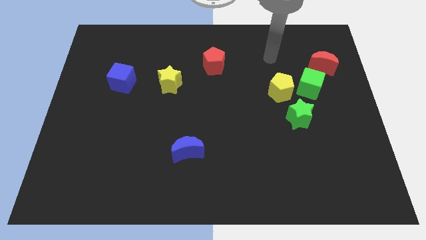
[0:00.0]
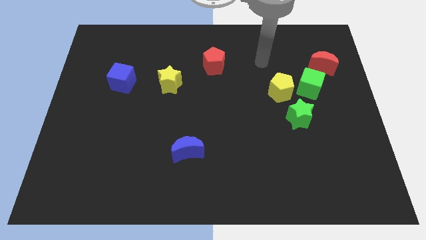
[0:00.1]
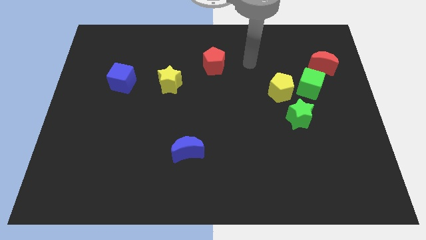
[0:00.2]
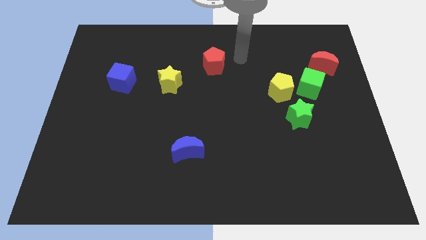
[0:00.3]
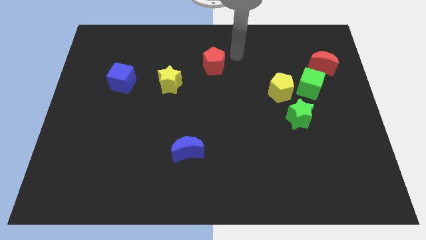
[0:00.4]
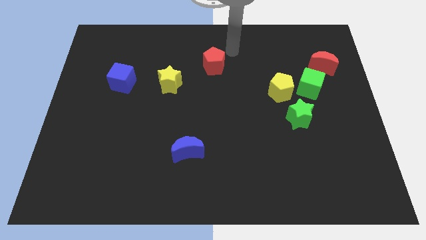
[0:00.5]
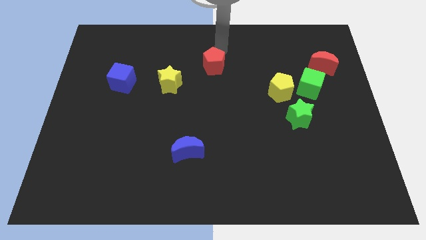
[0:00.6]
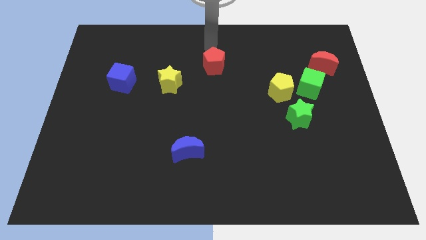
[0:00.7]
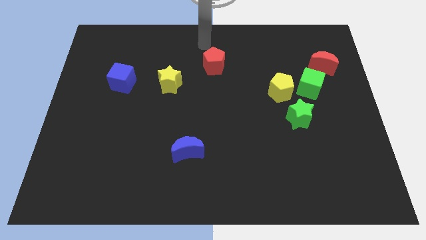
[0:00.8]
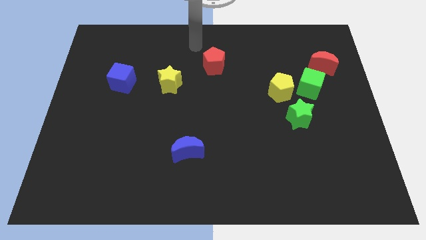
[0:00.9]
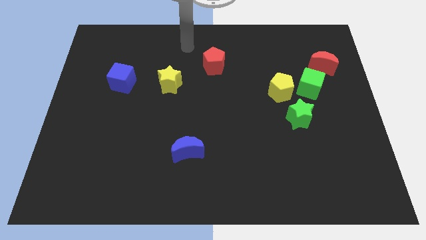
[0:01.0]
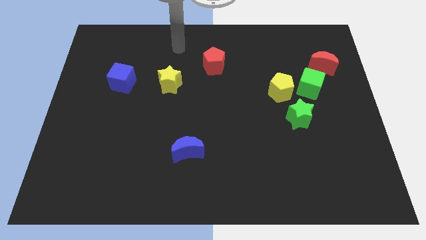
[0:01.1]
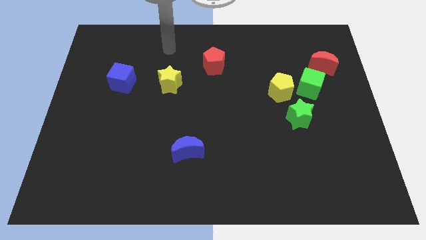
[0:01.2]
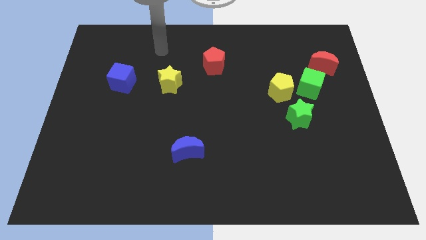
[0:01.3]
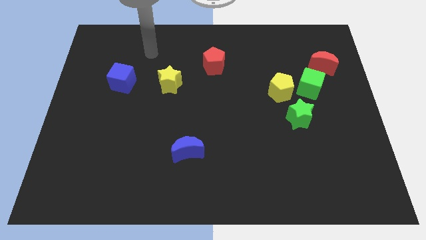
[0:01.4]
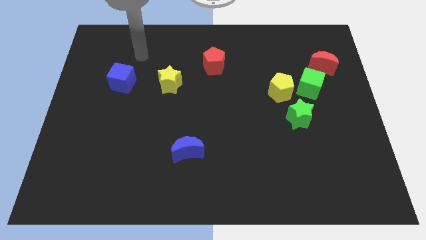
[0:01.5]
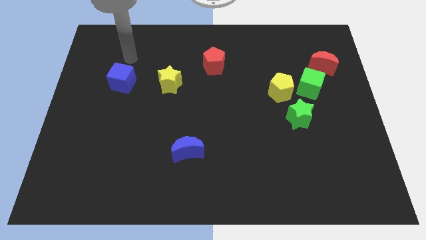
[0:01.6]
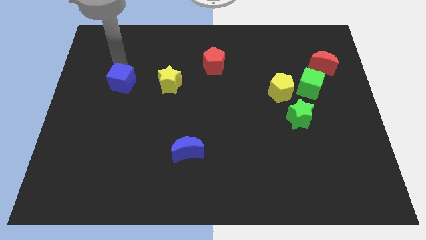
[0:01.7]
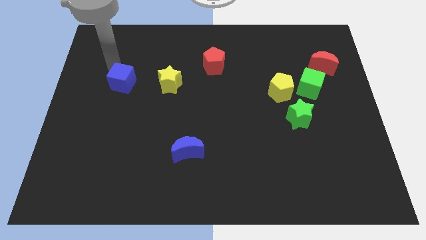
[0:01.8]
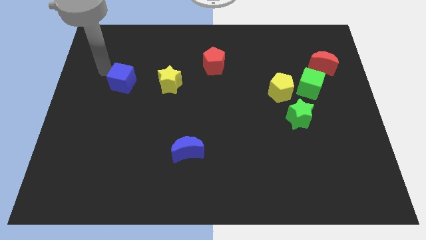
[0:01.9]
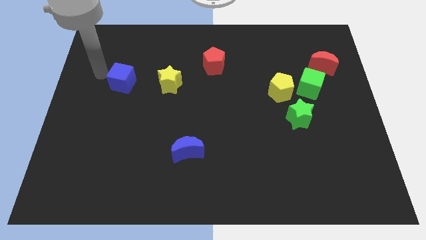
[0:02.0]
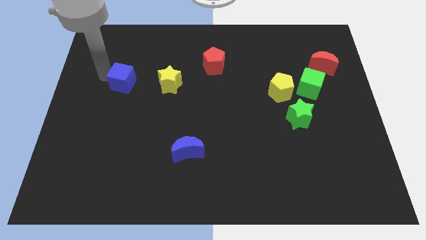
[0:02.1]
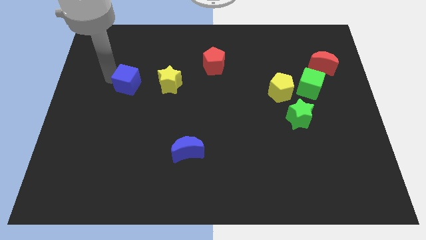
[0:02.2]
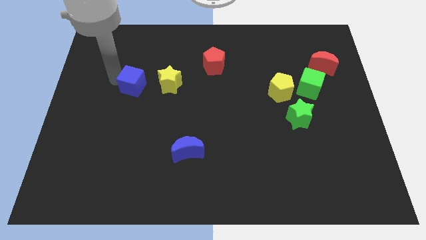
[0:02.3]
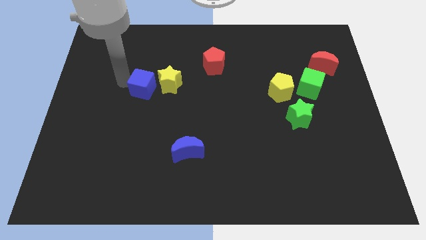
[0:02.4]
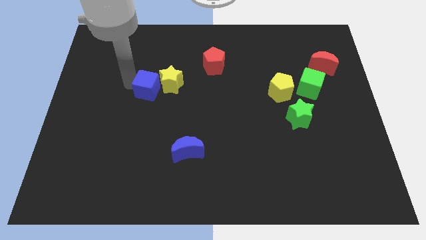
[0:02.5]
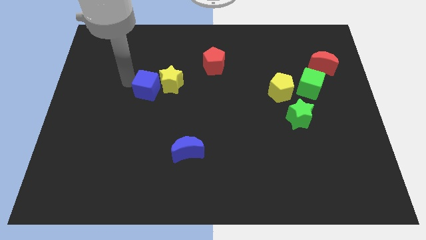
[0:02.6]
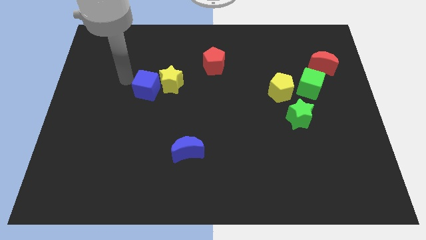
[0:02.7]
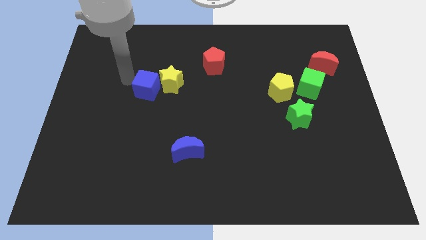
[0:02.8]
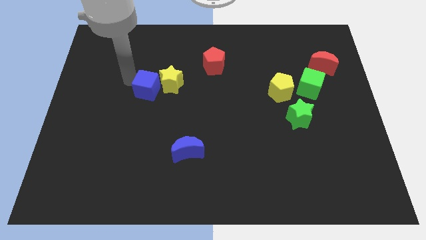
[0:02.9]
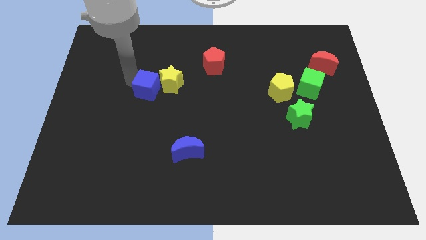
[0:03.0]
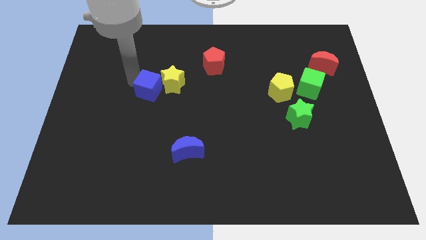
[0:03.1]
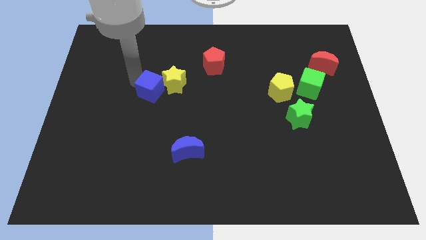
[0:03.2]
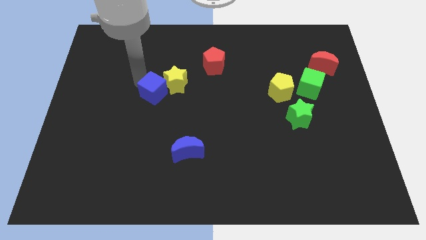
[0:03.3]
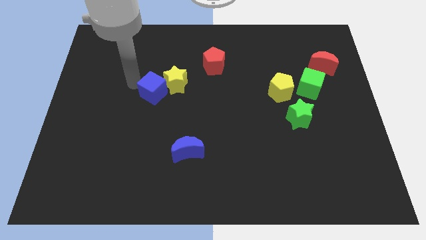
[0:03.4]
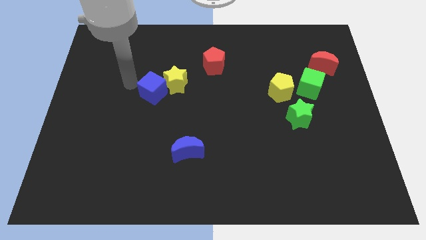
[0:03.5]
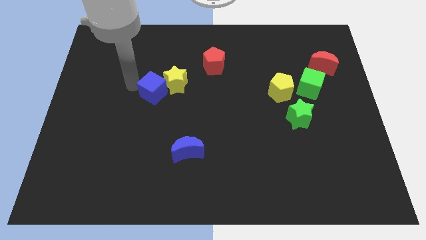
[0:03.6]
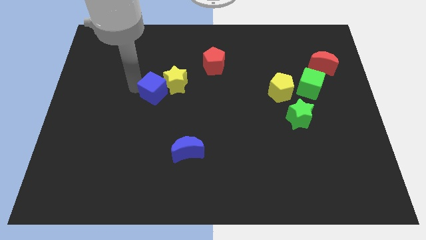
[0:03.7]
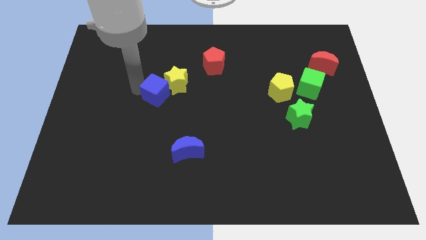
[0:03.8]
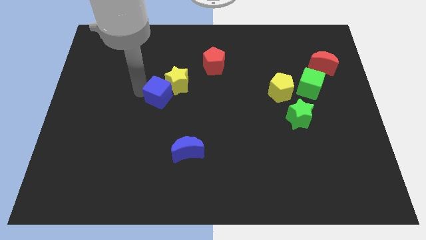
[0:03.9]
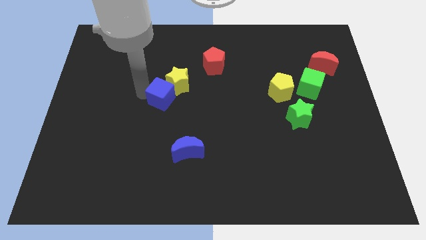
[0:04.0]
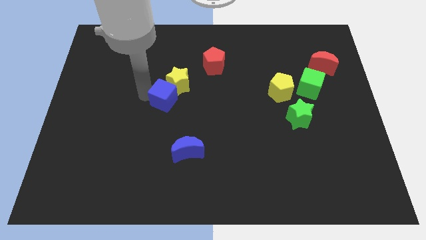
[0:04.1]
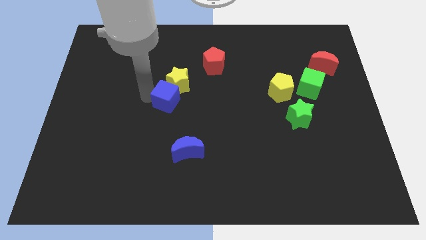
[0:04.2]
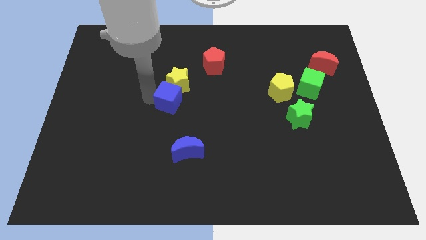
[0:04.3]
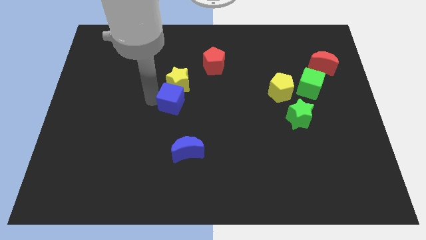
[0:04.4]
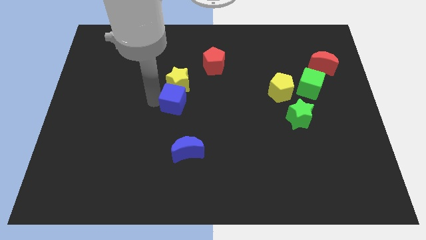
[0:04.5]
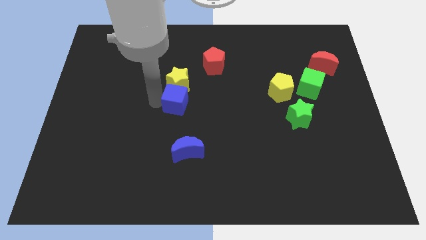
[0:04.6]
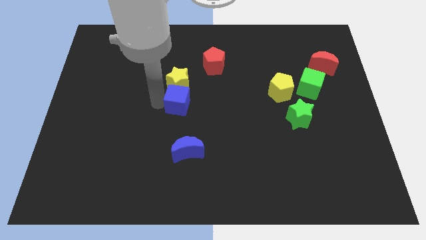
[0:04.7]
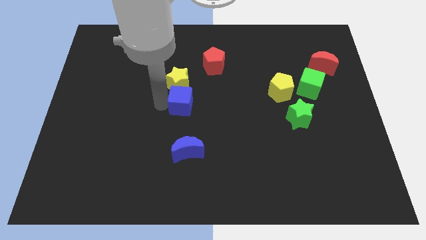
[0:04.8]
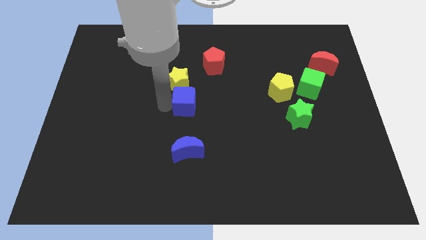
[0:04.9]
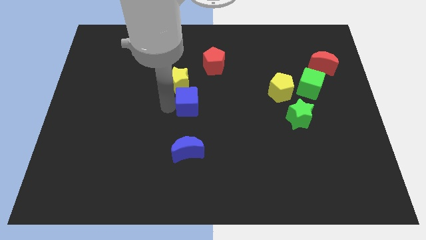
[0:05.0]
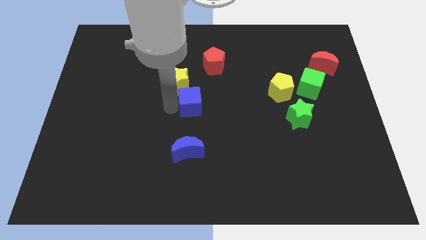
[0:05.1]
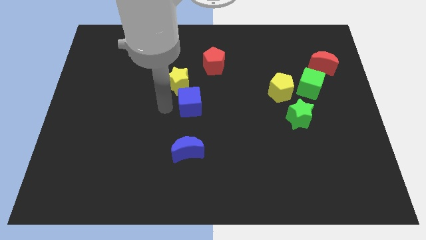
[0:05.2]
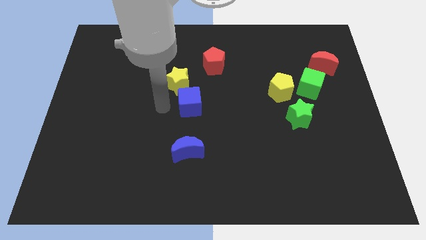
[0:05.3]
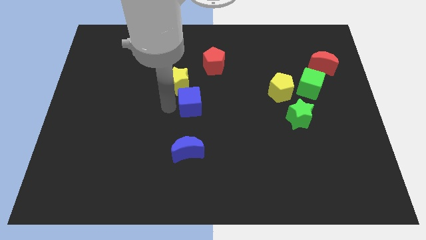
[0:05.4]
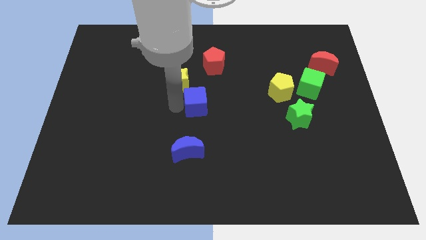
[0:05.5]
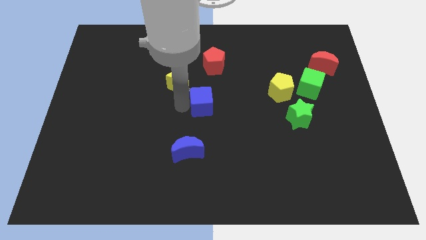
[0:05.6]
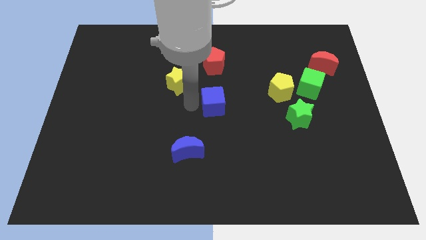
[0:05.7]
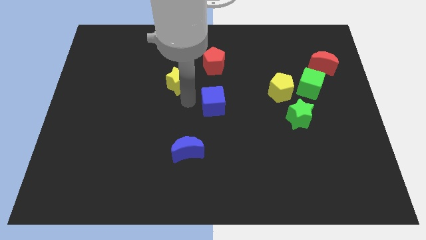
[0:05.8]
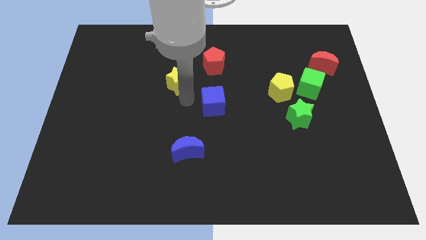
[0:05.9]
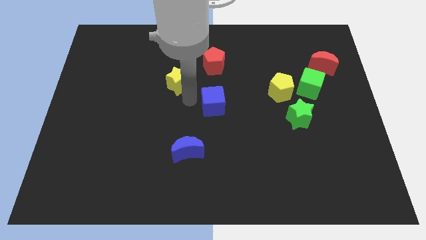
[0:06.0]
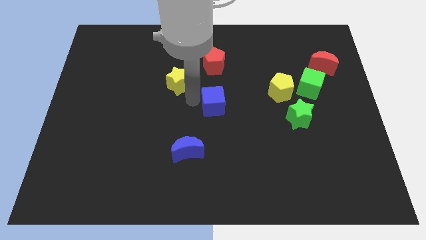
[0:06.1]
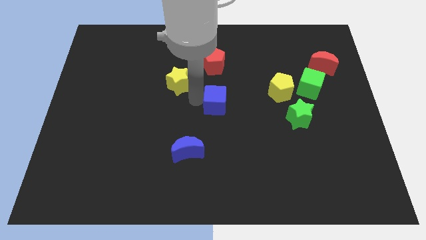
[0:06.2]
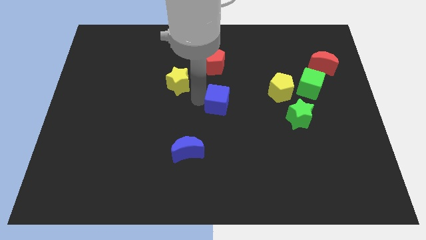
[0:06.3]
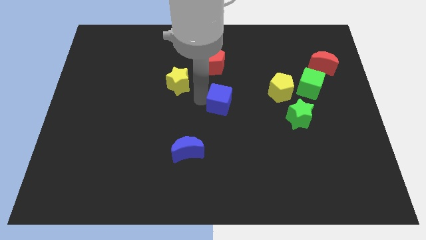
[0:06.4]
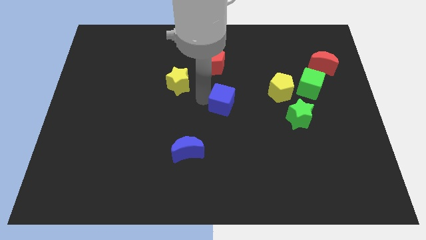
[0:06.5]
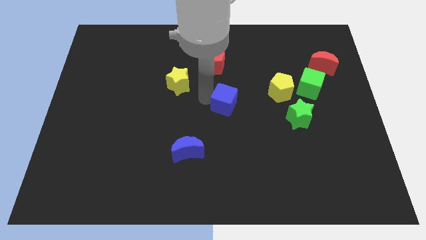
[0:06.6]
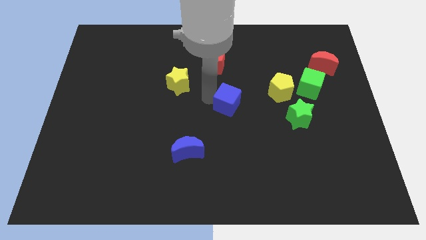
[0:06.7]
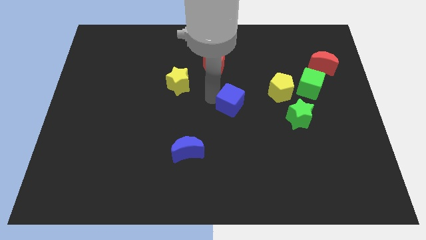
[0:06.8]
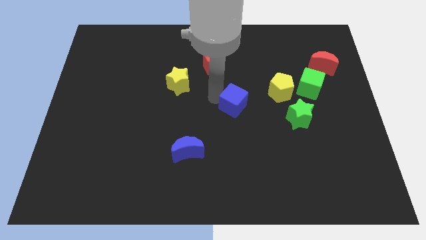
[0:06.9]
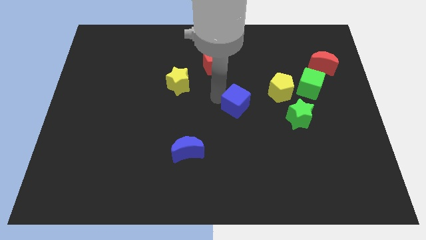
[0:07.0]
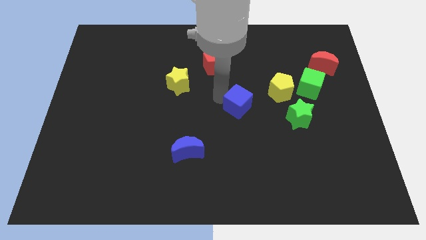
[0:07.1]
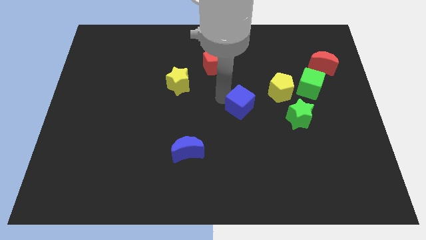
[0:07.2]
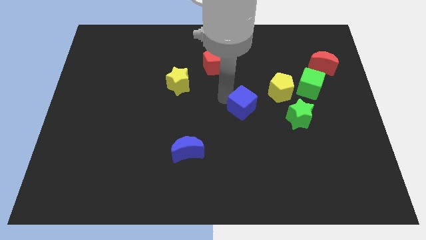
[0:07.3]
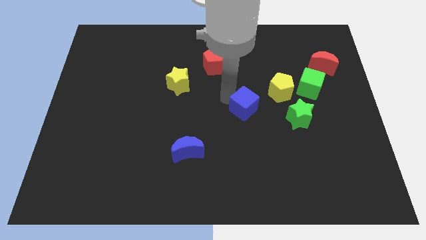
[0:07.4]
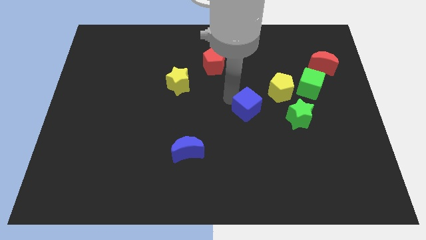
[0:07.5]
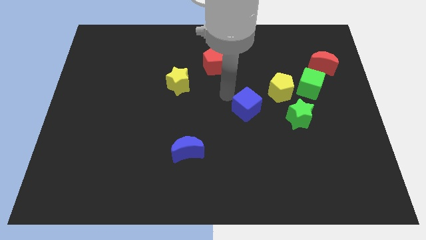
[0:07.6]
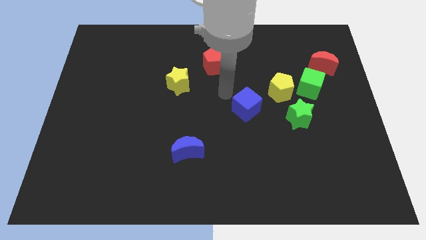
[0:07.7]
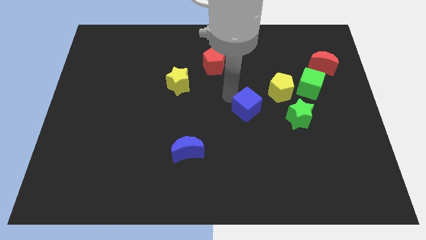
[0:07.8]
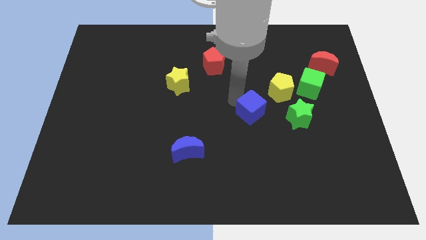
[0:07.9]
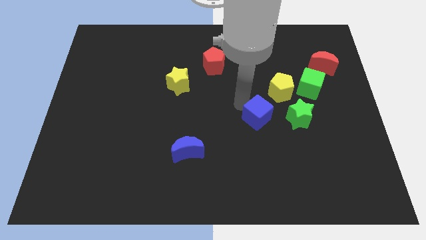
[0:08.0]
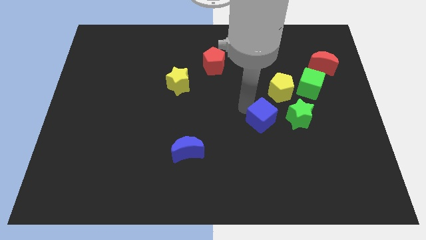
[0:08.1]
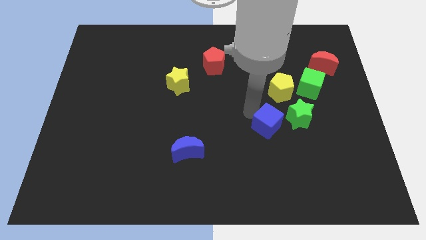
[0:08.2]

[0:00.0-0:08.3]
move the blue cube to the bottom side of the yellow pentagon
